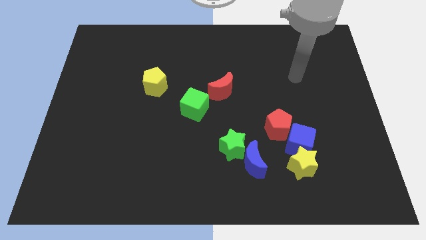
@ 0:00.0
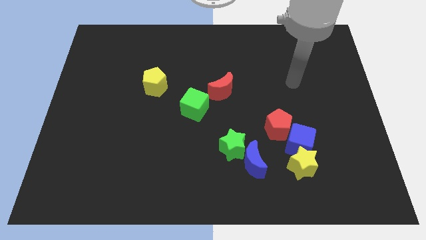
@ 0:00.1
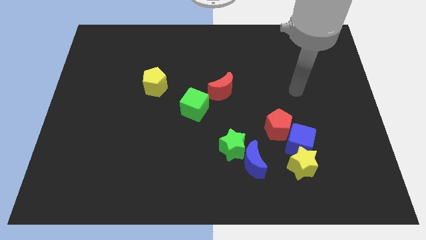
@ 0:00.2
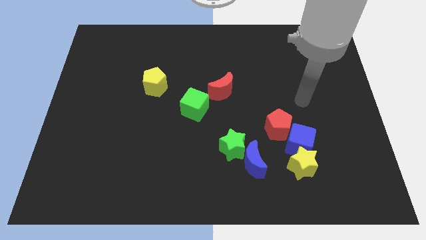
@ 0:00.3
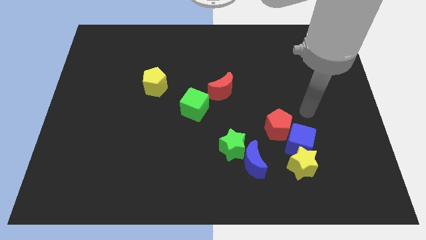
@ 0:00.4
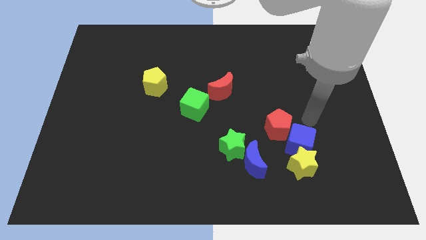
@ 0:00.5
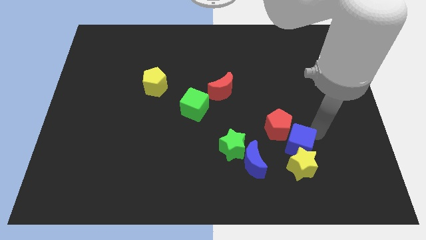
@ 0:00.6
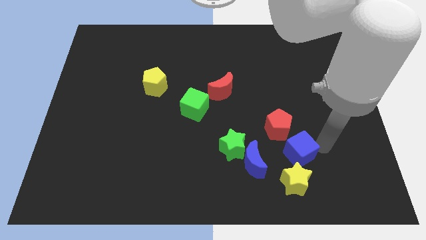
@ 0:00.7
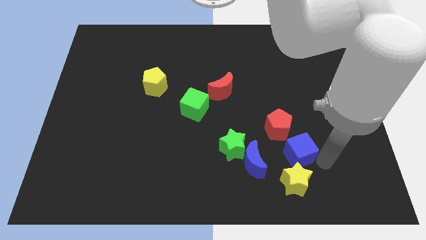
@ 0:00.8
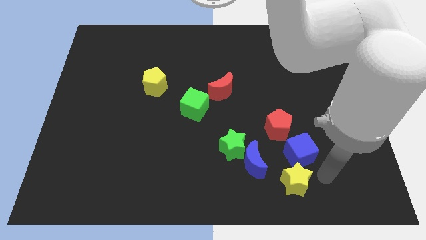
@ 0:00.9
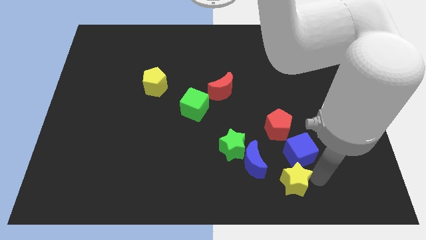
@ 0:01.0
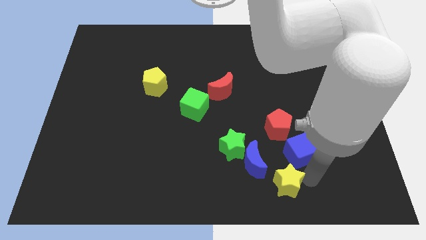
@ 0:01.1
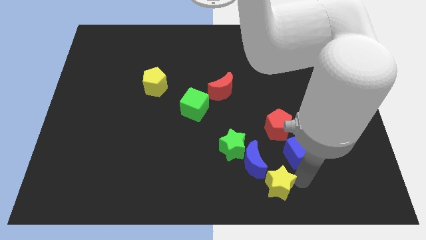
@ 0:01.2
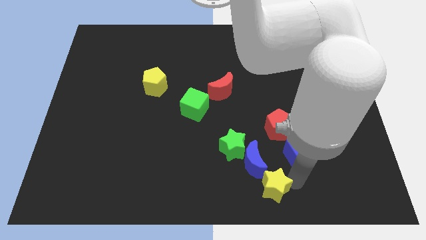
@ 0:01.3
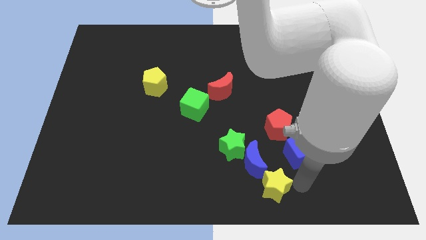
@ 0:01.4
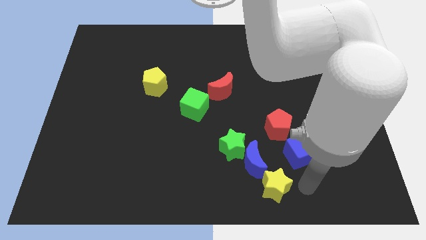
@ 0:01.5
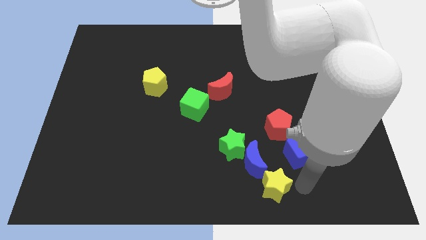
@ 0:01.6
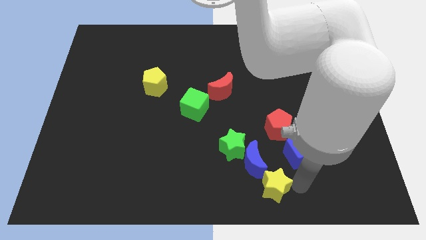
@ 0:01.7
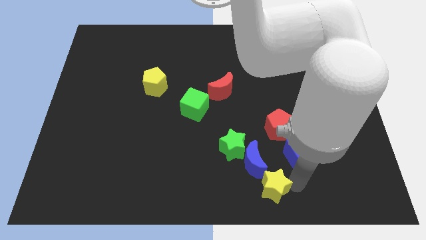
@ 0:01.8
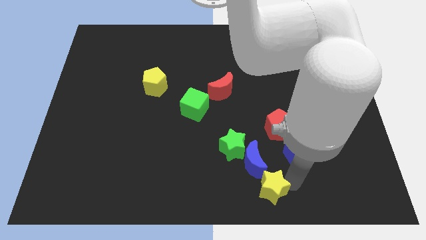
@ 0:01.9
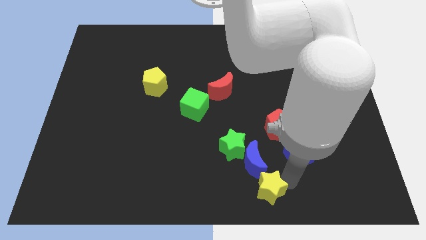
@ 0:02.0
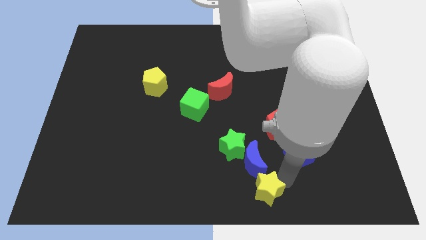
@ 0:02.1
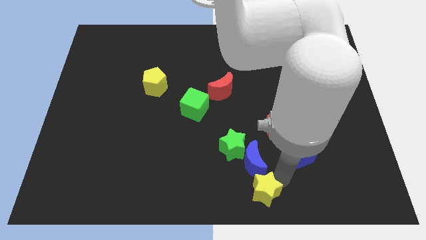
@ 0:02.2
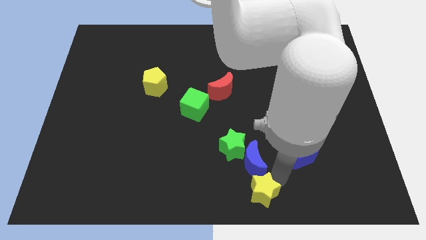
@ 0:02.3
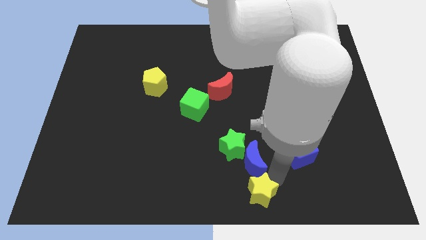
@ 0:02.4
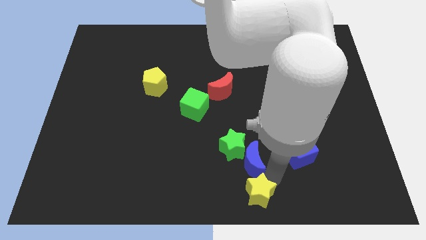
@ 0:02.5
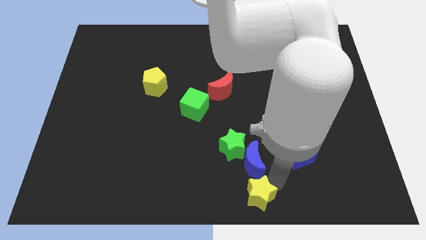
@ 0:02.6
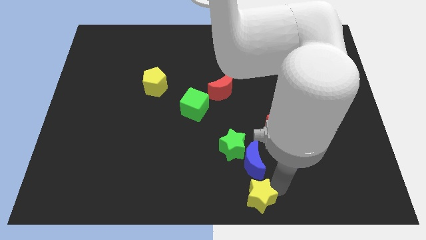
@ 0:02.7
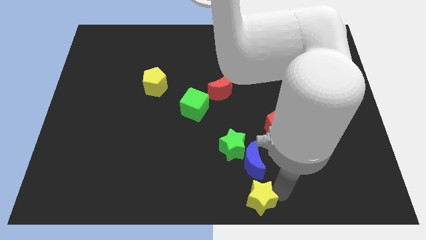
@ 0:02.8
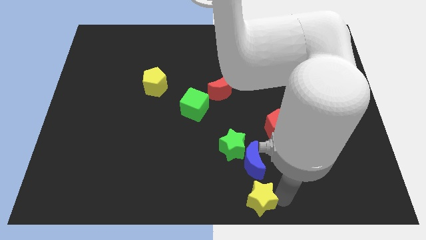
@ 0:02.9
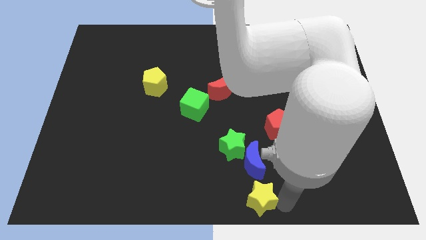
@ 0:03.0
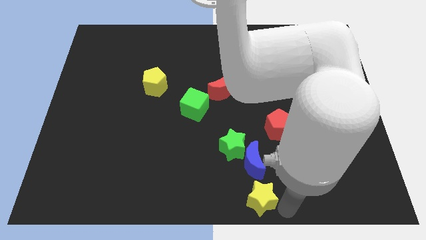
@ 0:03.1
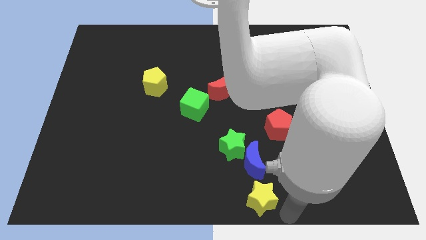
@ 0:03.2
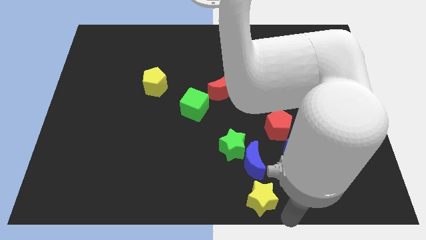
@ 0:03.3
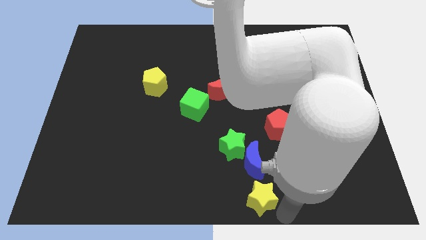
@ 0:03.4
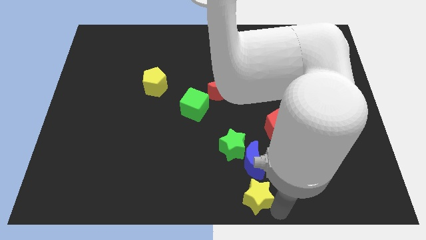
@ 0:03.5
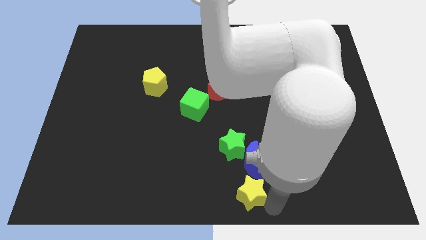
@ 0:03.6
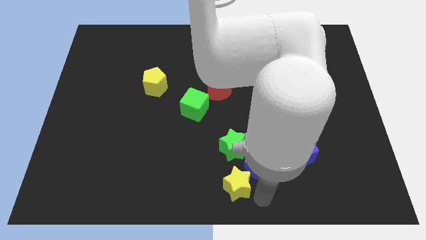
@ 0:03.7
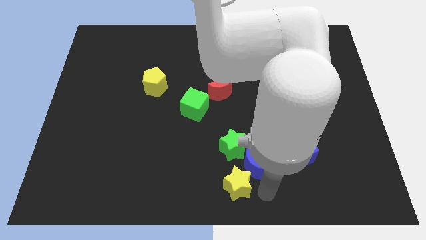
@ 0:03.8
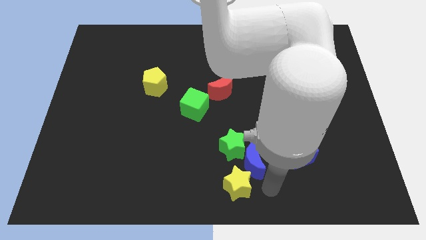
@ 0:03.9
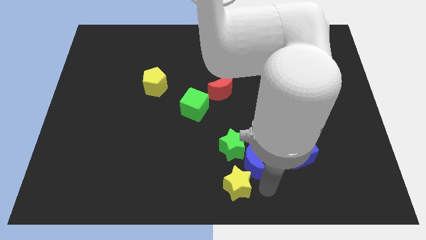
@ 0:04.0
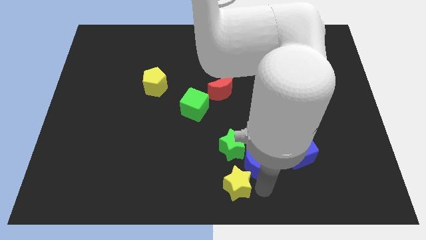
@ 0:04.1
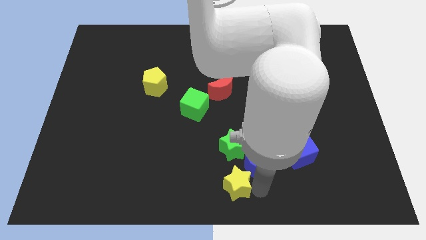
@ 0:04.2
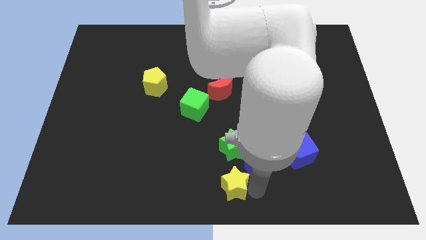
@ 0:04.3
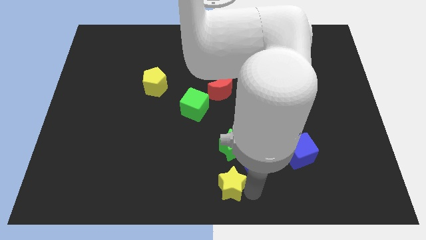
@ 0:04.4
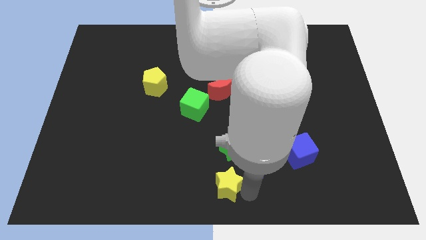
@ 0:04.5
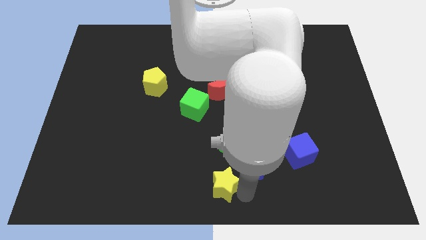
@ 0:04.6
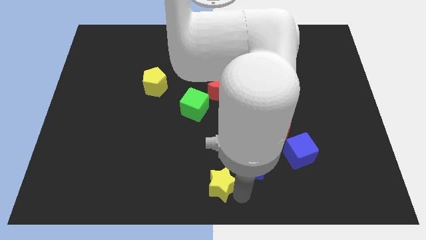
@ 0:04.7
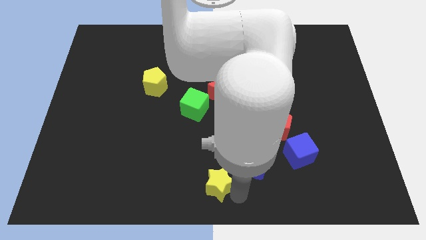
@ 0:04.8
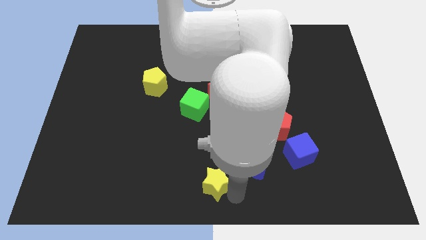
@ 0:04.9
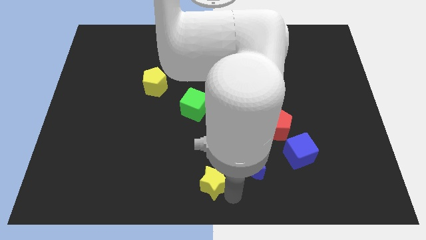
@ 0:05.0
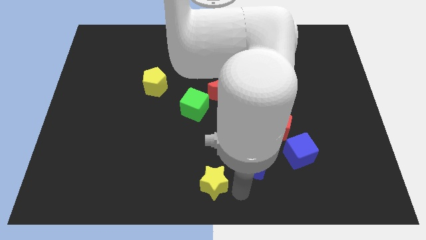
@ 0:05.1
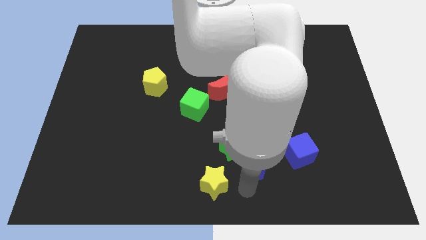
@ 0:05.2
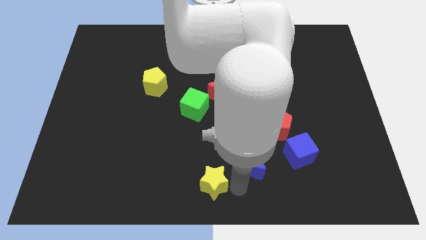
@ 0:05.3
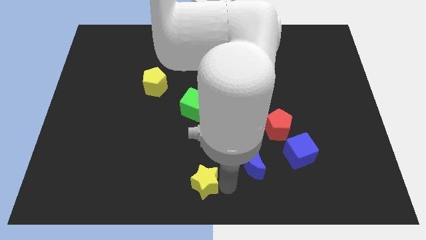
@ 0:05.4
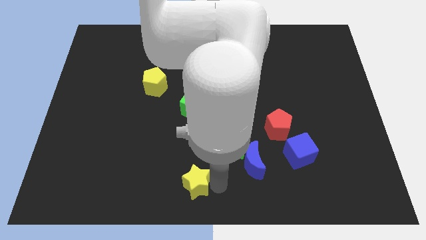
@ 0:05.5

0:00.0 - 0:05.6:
slide the yellow star to the left

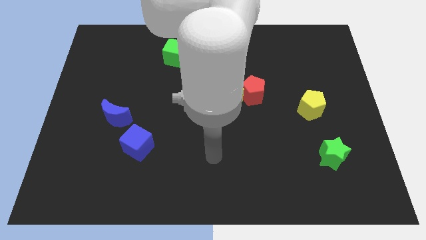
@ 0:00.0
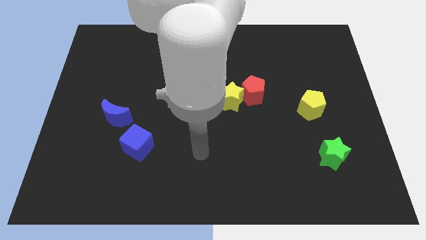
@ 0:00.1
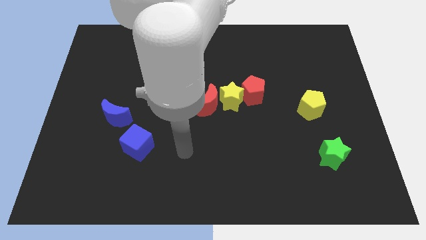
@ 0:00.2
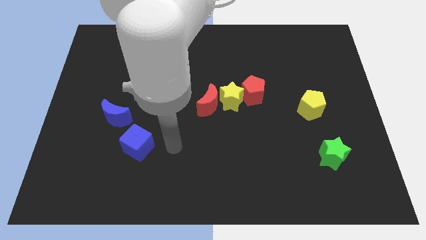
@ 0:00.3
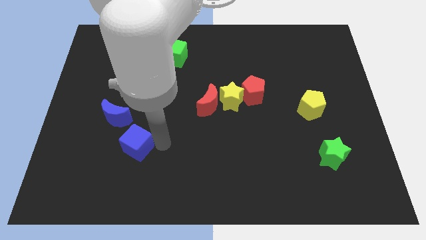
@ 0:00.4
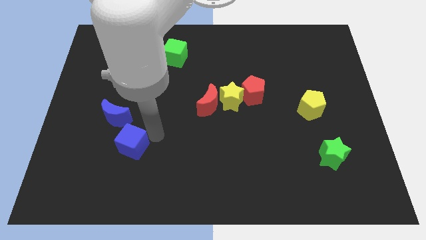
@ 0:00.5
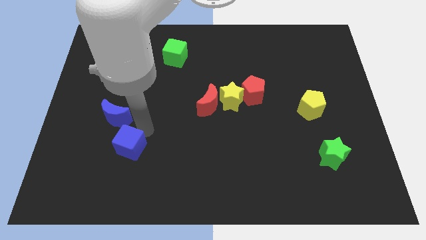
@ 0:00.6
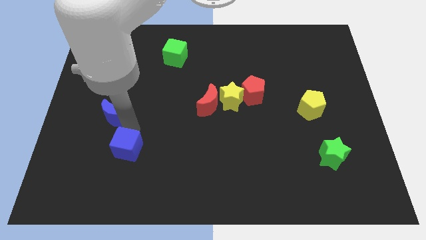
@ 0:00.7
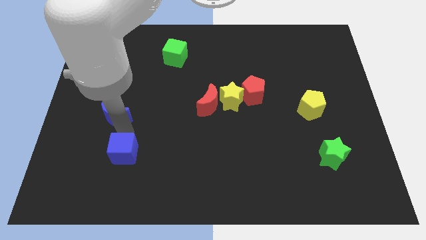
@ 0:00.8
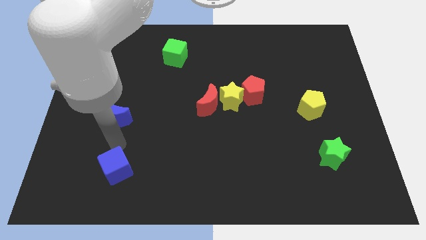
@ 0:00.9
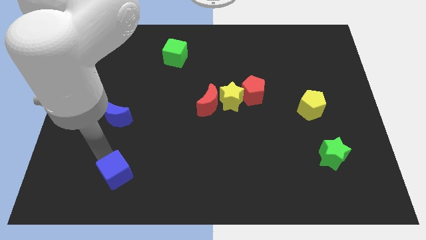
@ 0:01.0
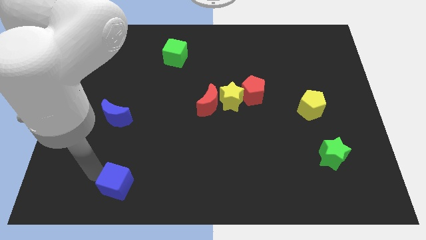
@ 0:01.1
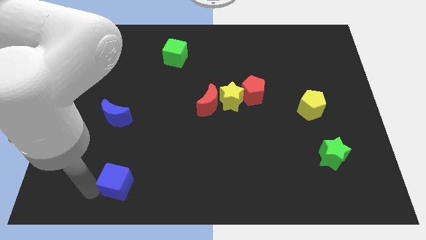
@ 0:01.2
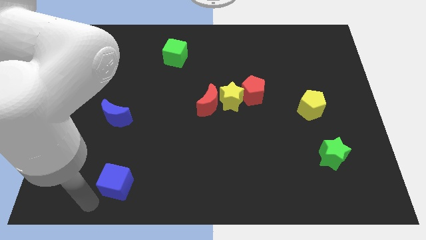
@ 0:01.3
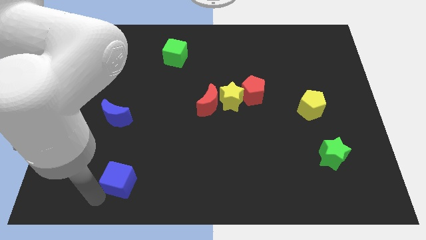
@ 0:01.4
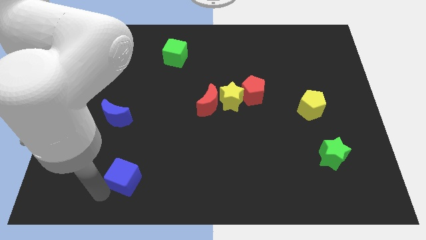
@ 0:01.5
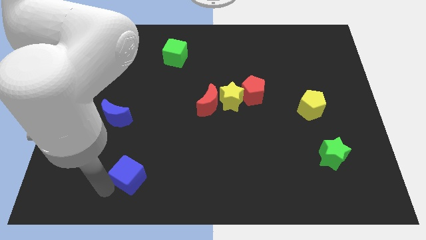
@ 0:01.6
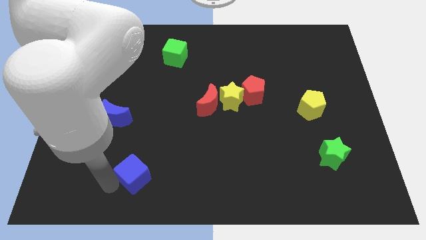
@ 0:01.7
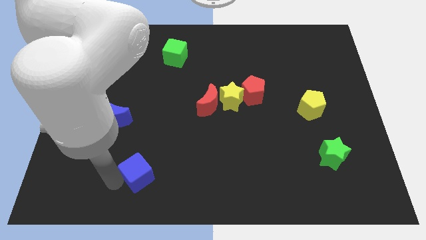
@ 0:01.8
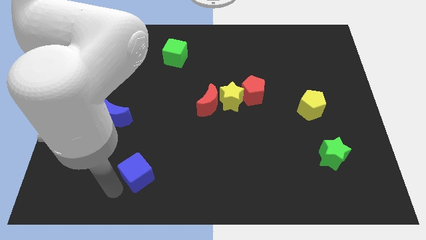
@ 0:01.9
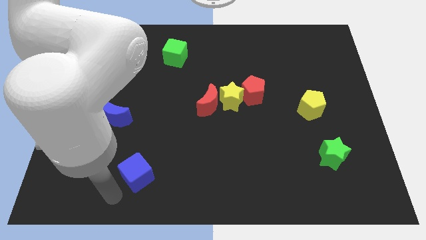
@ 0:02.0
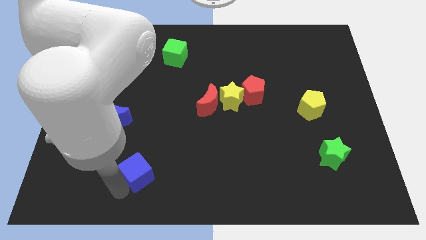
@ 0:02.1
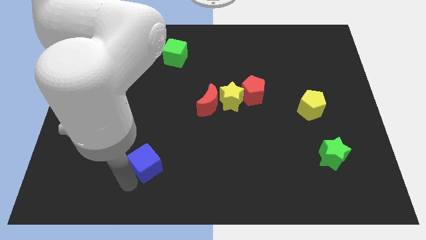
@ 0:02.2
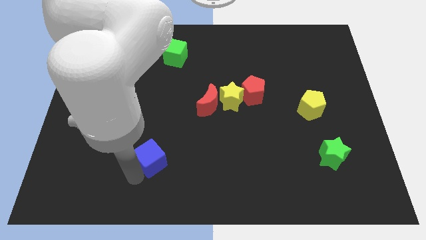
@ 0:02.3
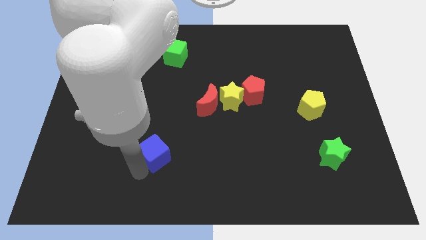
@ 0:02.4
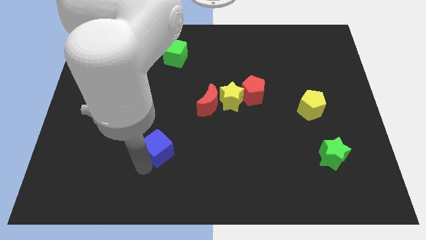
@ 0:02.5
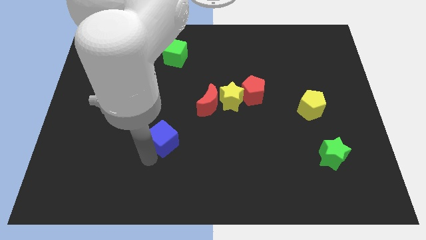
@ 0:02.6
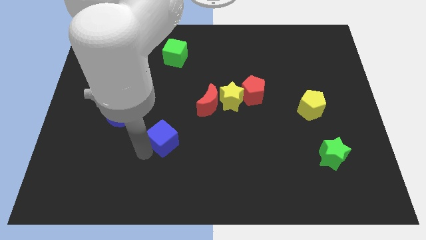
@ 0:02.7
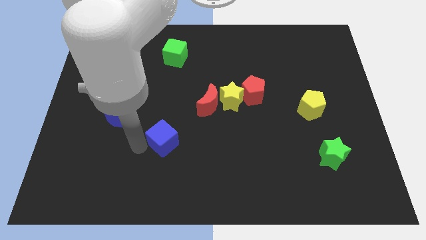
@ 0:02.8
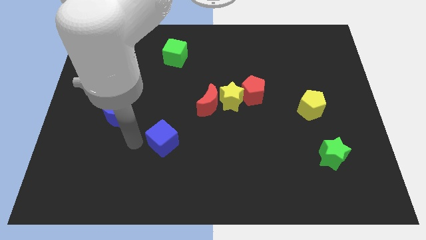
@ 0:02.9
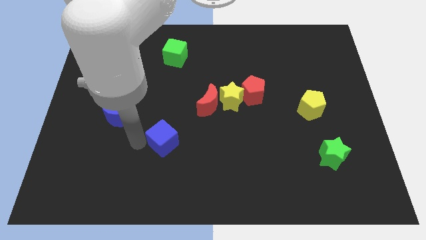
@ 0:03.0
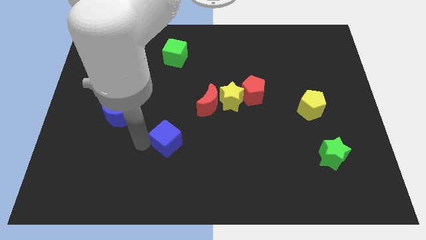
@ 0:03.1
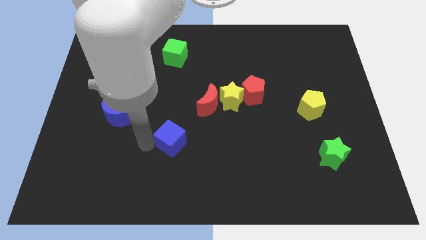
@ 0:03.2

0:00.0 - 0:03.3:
slightly move the blue cube to the right
